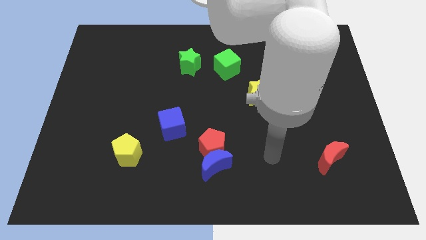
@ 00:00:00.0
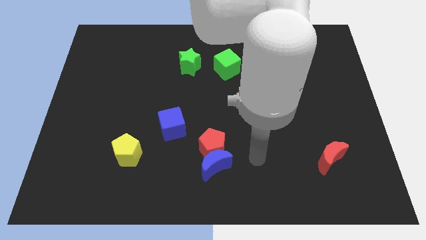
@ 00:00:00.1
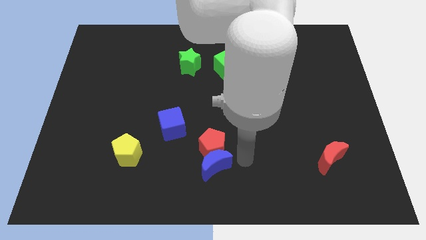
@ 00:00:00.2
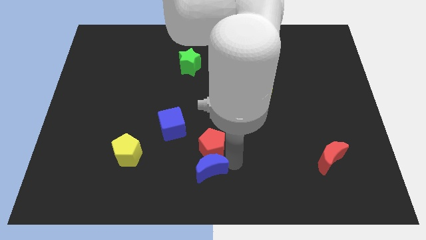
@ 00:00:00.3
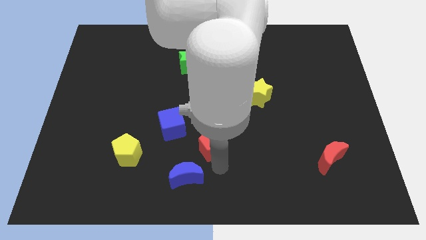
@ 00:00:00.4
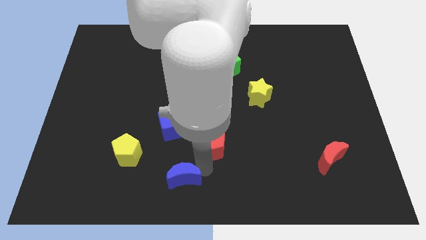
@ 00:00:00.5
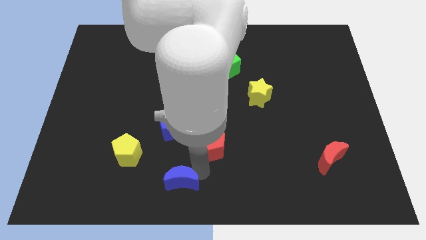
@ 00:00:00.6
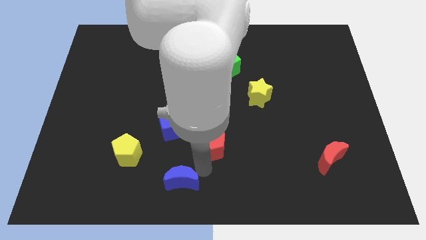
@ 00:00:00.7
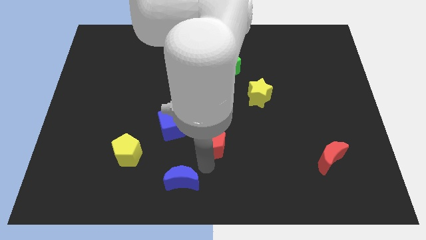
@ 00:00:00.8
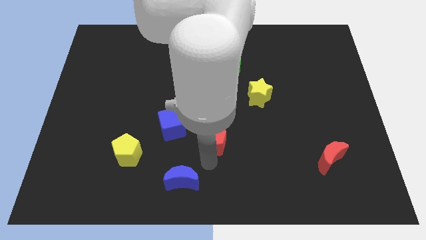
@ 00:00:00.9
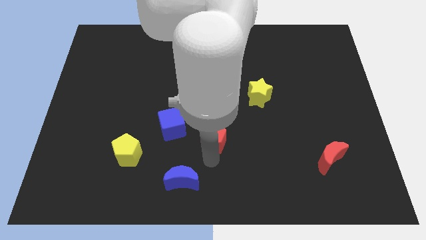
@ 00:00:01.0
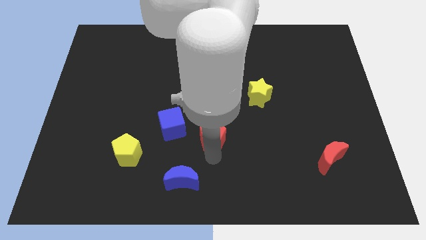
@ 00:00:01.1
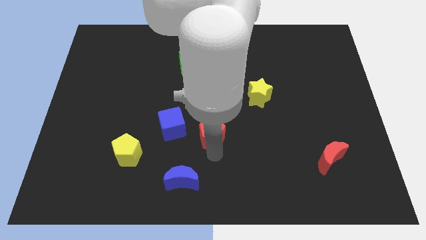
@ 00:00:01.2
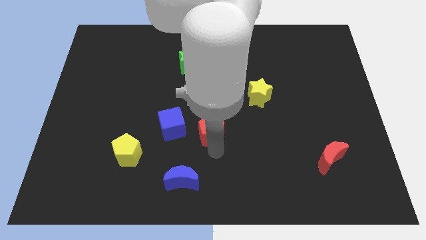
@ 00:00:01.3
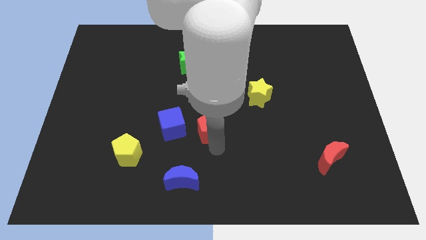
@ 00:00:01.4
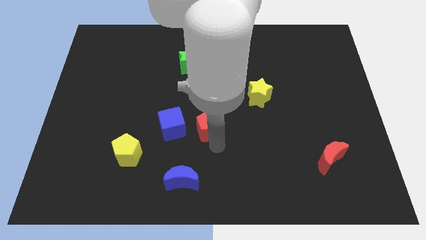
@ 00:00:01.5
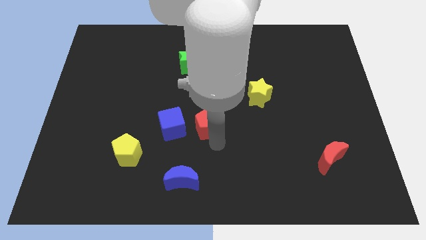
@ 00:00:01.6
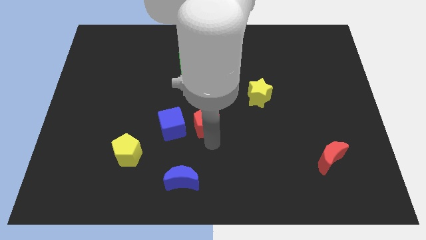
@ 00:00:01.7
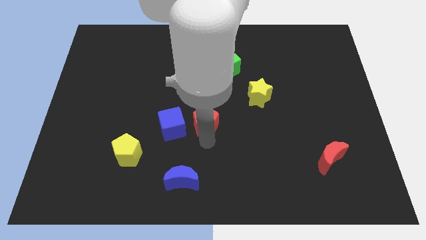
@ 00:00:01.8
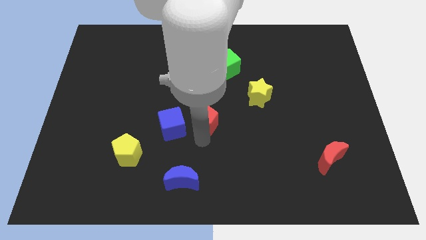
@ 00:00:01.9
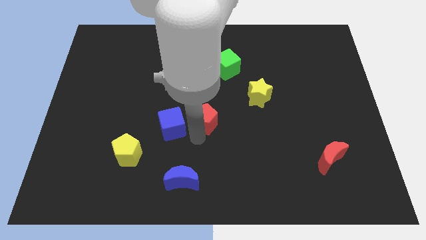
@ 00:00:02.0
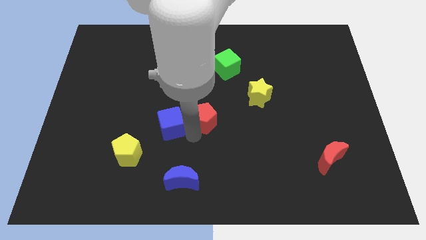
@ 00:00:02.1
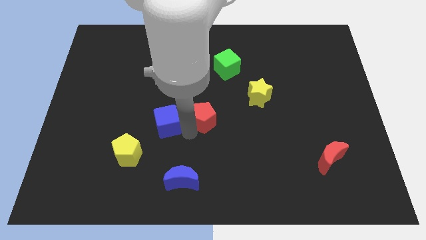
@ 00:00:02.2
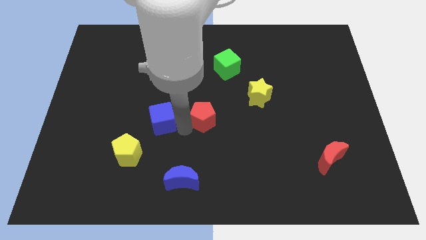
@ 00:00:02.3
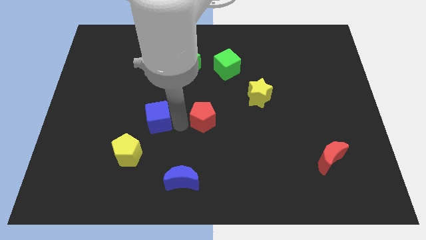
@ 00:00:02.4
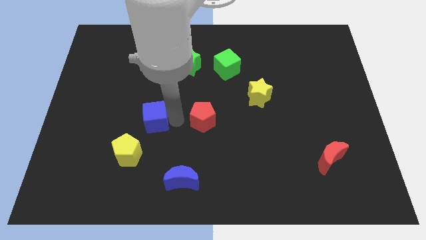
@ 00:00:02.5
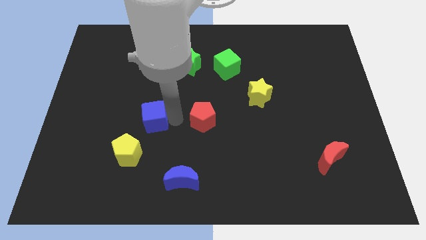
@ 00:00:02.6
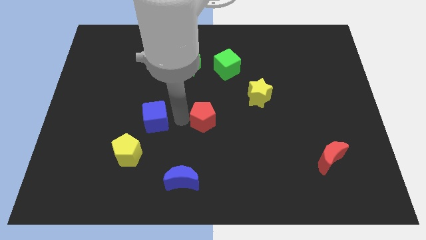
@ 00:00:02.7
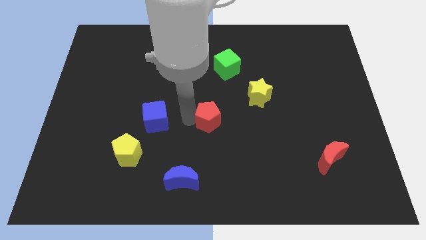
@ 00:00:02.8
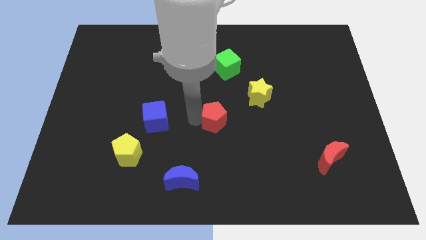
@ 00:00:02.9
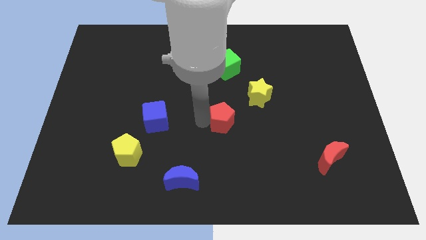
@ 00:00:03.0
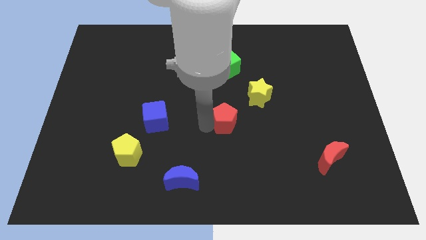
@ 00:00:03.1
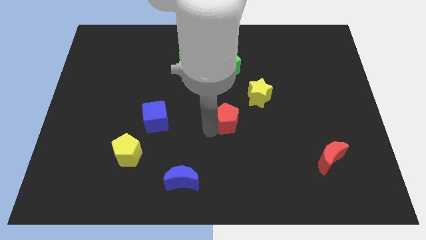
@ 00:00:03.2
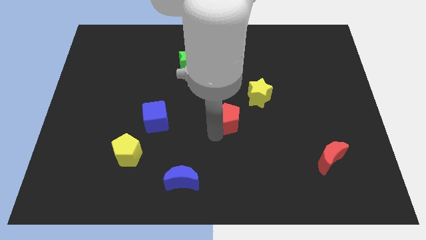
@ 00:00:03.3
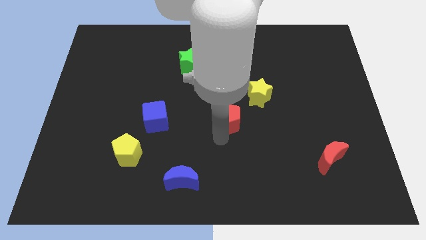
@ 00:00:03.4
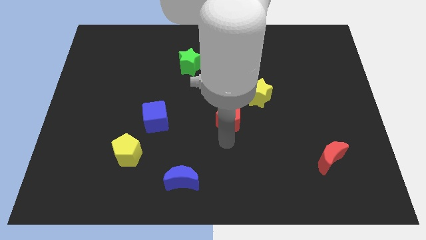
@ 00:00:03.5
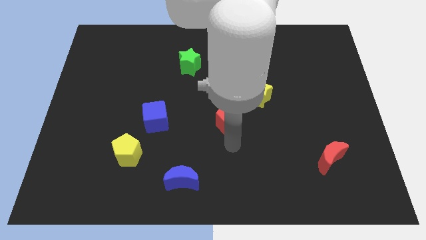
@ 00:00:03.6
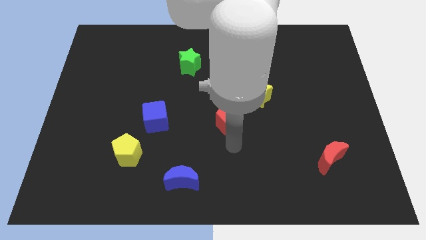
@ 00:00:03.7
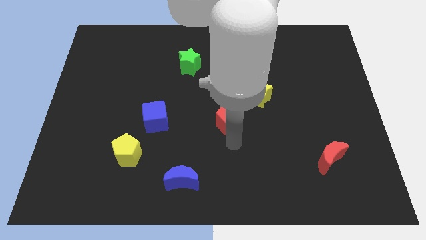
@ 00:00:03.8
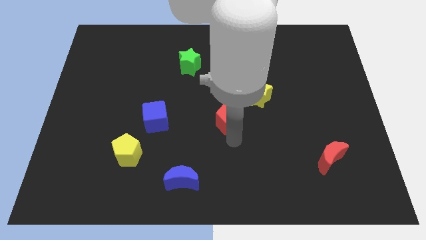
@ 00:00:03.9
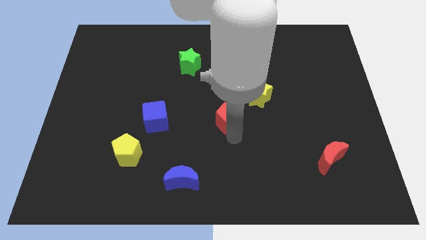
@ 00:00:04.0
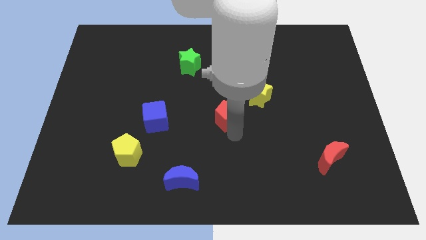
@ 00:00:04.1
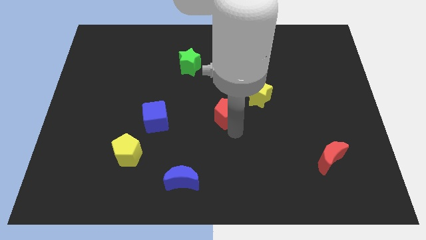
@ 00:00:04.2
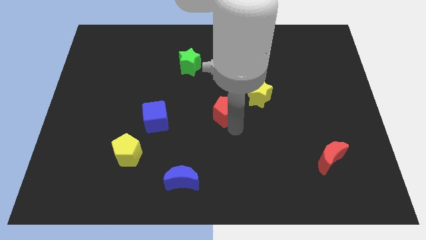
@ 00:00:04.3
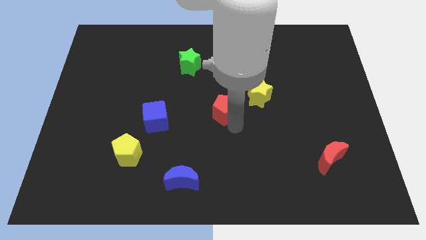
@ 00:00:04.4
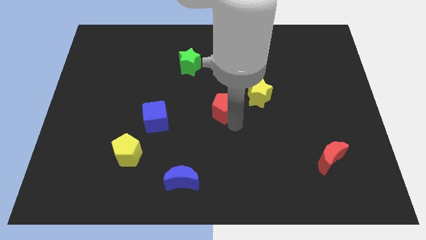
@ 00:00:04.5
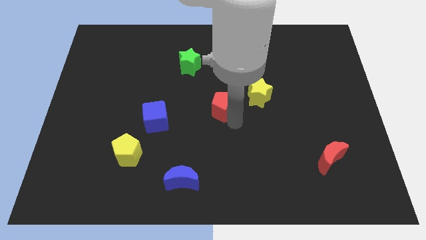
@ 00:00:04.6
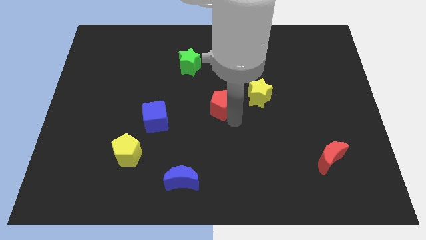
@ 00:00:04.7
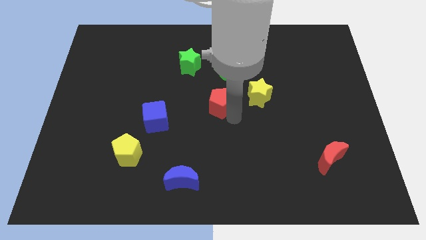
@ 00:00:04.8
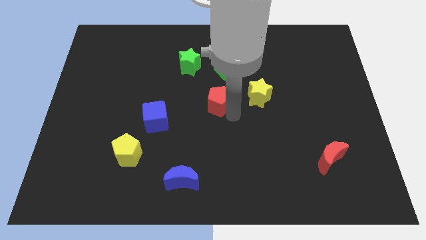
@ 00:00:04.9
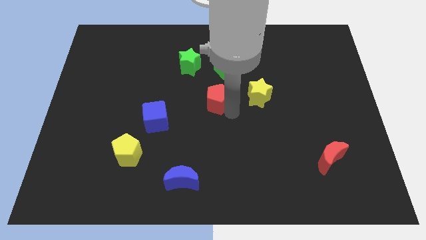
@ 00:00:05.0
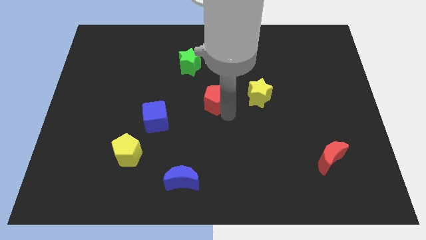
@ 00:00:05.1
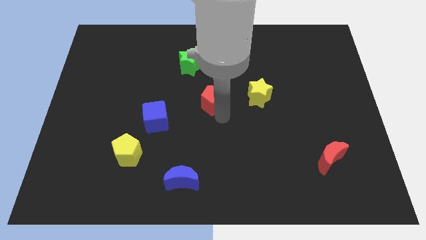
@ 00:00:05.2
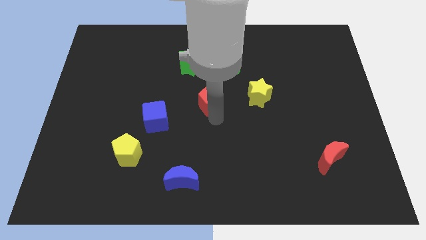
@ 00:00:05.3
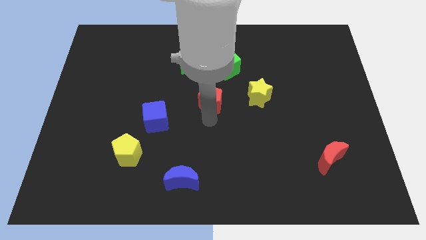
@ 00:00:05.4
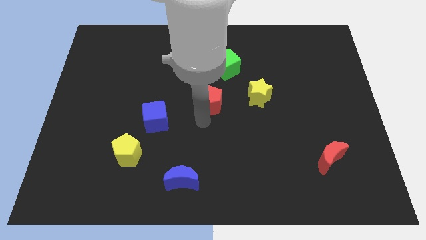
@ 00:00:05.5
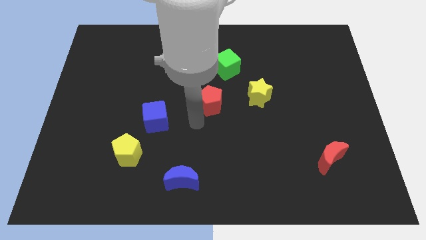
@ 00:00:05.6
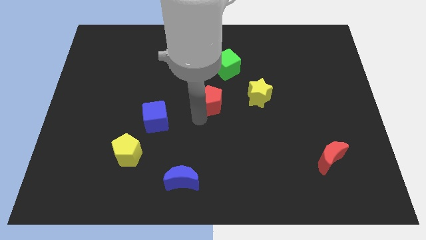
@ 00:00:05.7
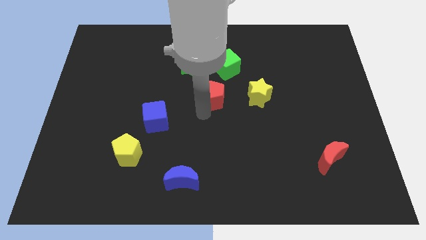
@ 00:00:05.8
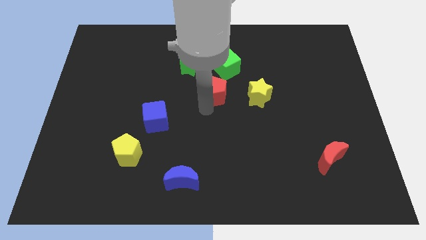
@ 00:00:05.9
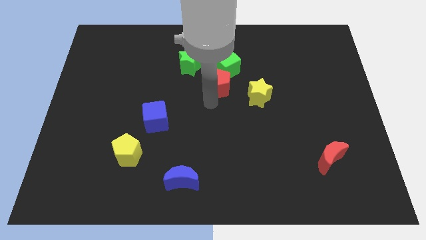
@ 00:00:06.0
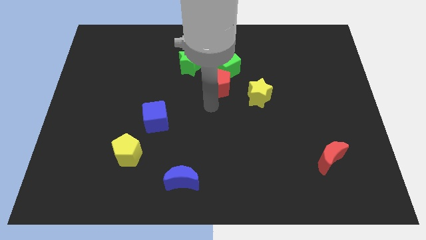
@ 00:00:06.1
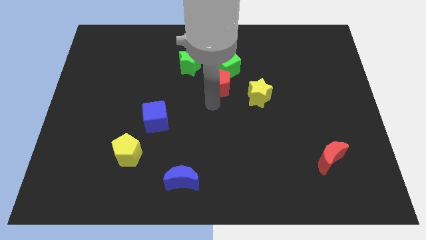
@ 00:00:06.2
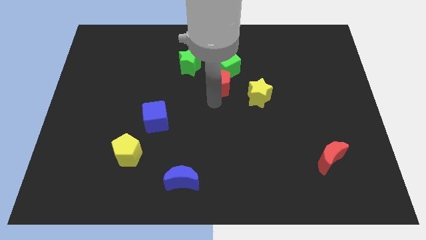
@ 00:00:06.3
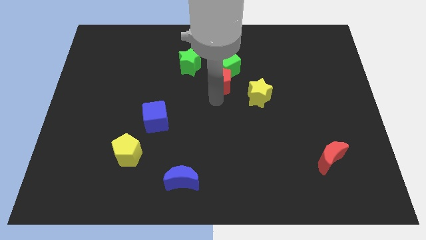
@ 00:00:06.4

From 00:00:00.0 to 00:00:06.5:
move the red pentagon to the green cube

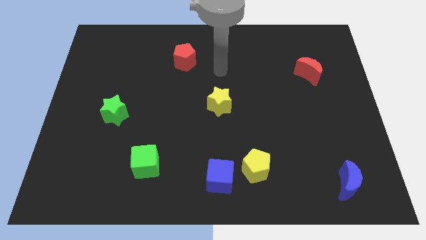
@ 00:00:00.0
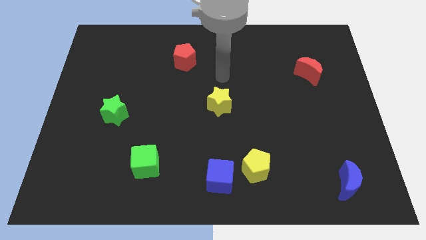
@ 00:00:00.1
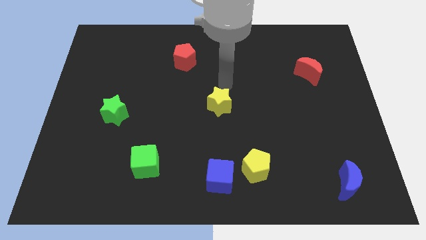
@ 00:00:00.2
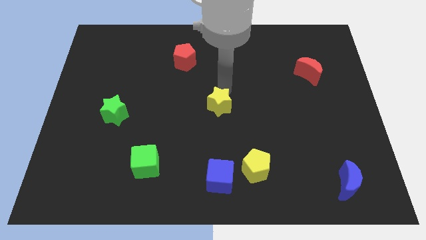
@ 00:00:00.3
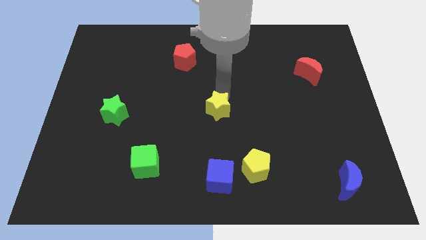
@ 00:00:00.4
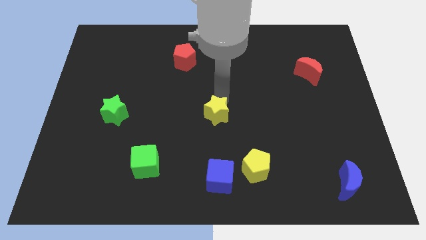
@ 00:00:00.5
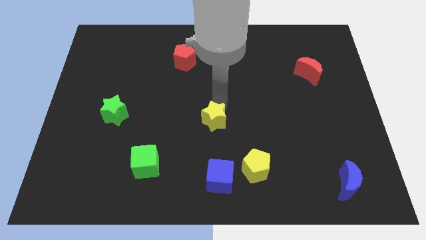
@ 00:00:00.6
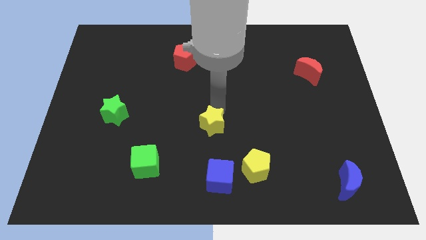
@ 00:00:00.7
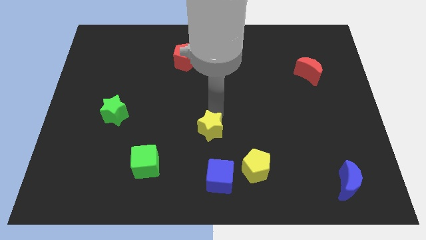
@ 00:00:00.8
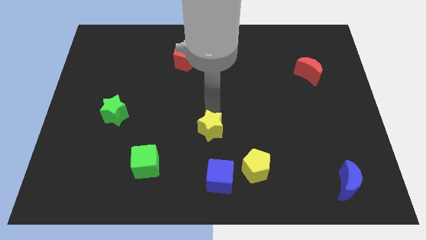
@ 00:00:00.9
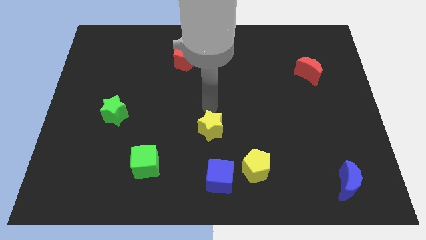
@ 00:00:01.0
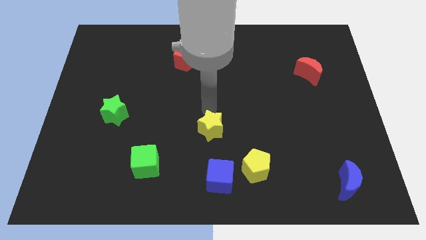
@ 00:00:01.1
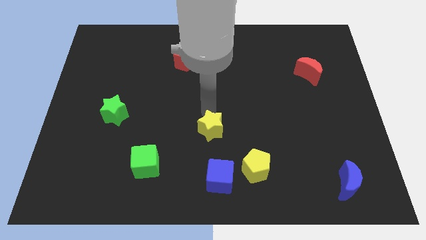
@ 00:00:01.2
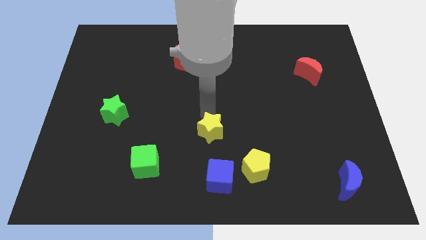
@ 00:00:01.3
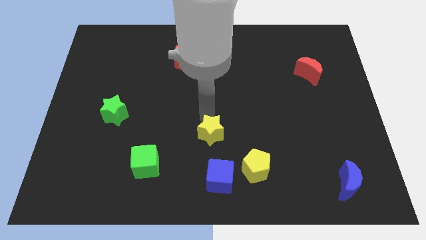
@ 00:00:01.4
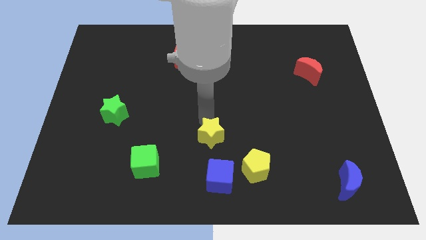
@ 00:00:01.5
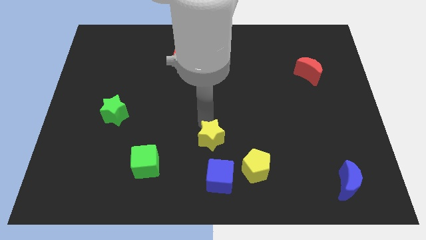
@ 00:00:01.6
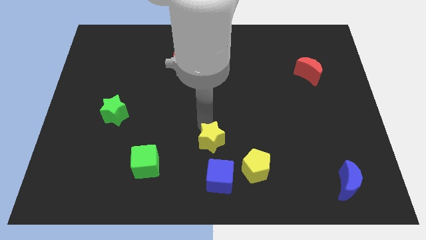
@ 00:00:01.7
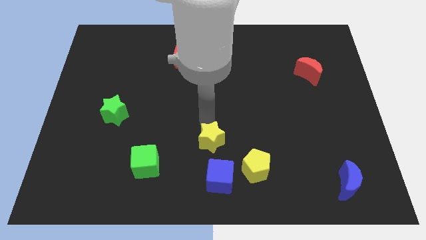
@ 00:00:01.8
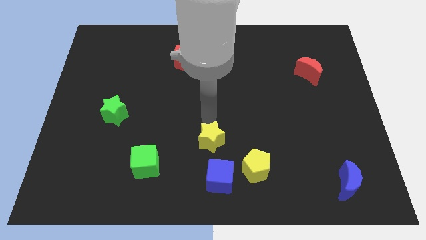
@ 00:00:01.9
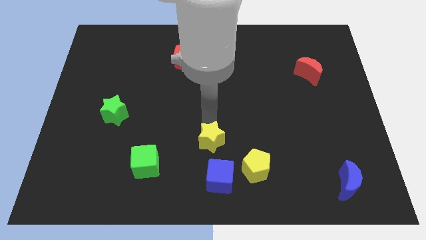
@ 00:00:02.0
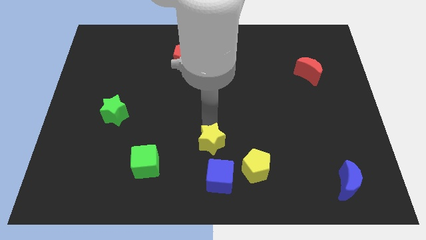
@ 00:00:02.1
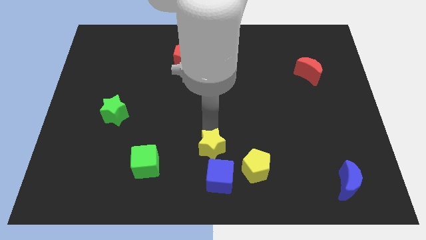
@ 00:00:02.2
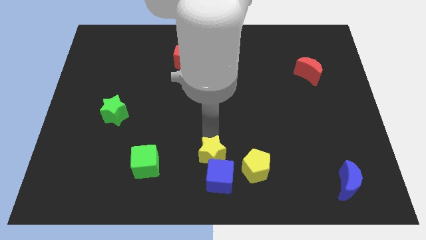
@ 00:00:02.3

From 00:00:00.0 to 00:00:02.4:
put the yellow star close to the blue cube
